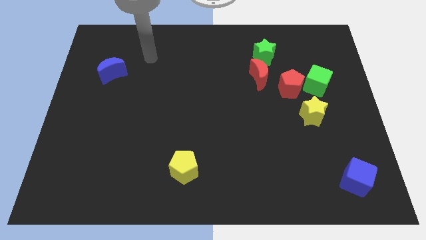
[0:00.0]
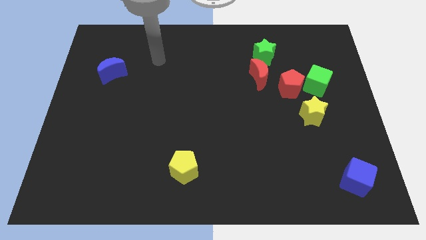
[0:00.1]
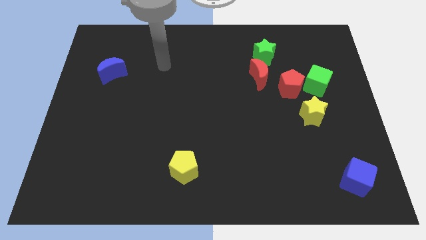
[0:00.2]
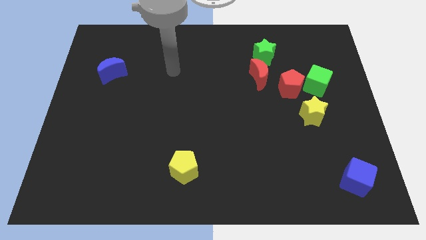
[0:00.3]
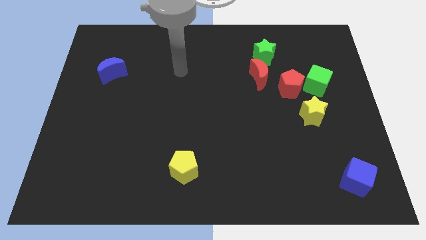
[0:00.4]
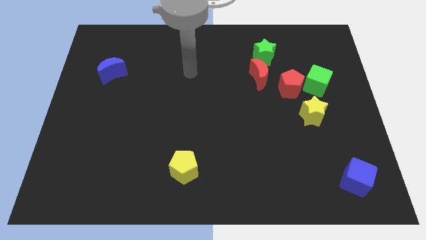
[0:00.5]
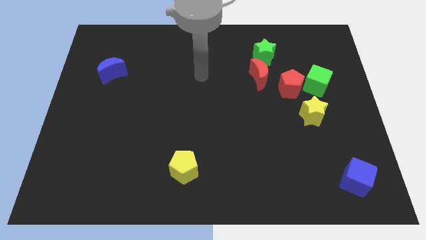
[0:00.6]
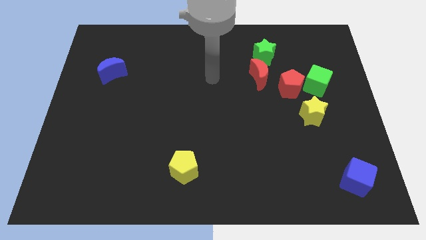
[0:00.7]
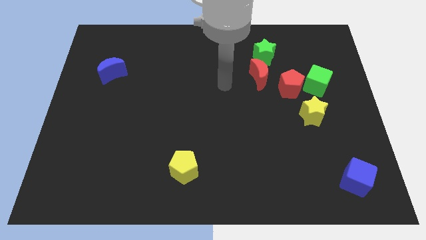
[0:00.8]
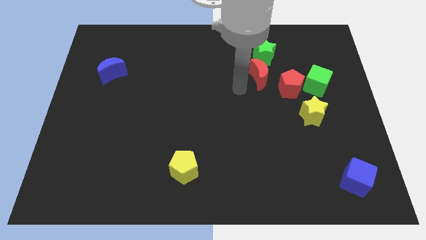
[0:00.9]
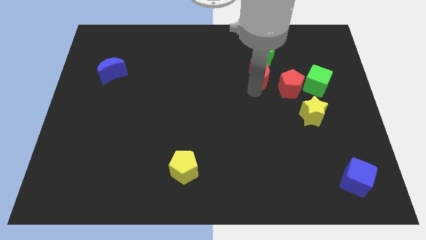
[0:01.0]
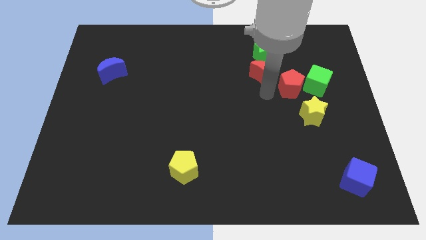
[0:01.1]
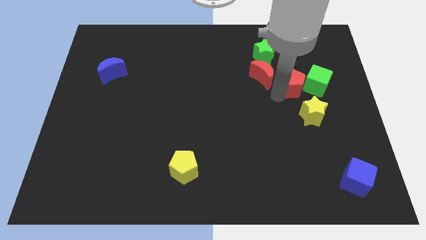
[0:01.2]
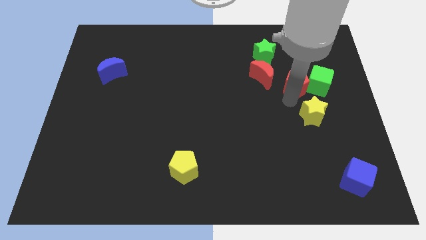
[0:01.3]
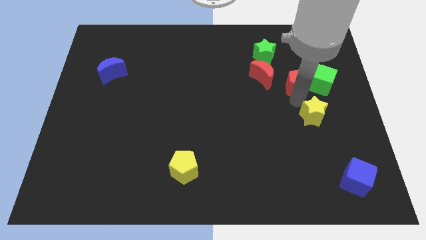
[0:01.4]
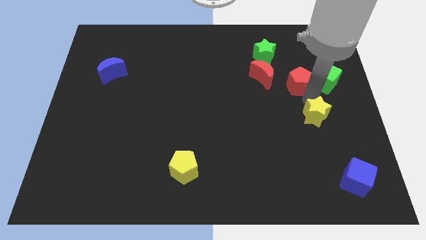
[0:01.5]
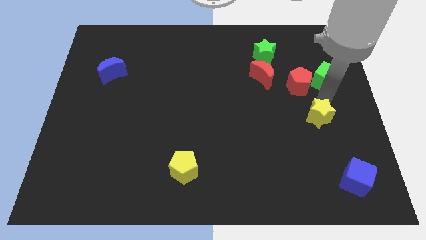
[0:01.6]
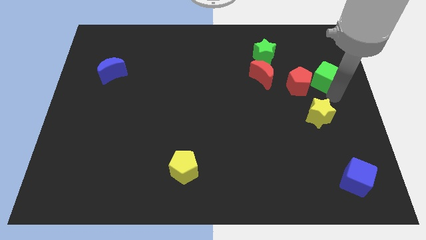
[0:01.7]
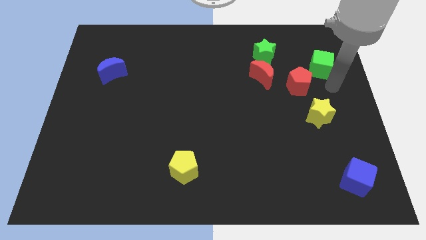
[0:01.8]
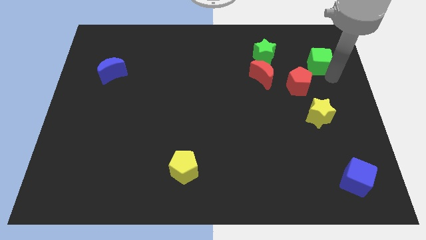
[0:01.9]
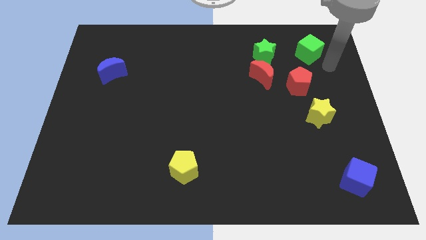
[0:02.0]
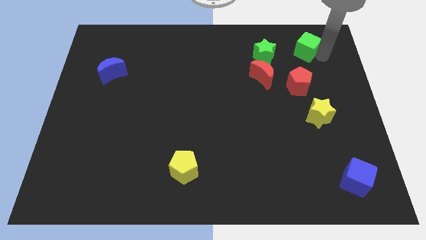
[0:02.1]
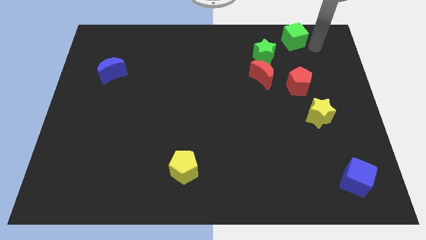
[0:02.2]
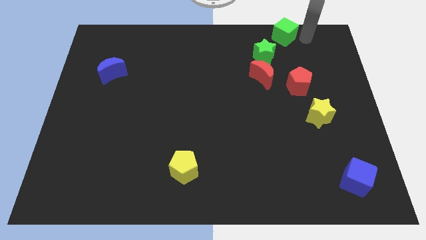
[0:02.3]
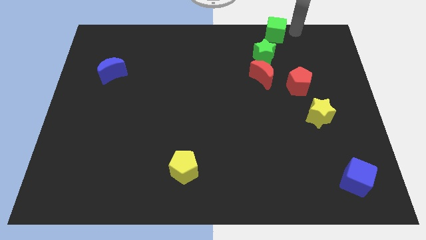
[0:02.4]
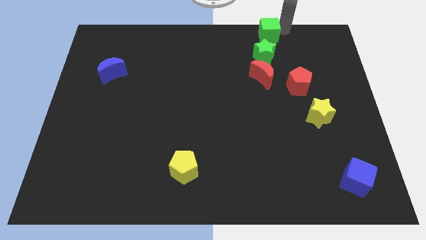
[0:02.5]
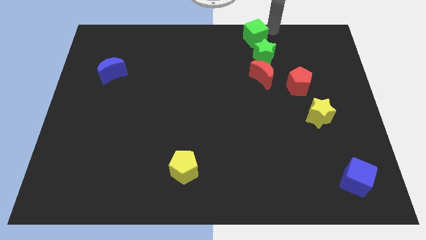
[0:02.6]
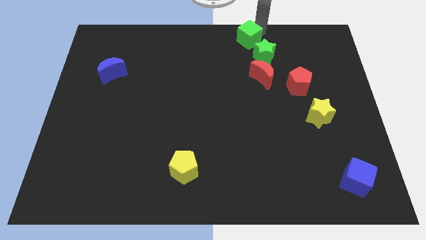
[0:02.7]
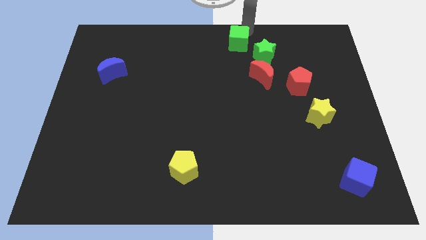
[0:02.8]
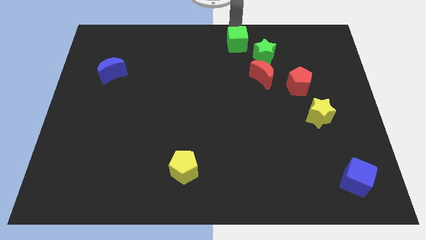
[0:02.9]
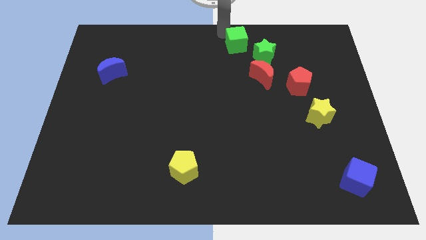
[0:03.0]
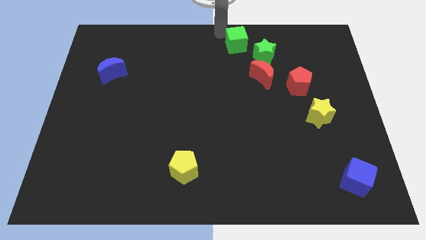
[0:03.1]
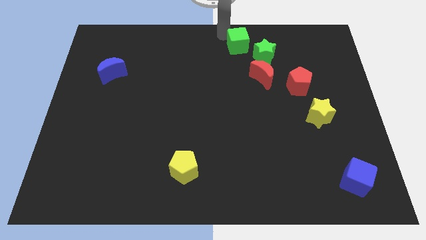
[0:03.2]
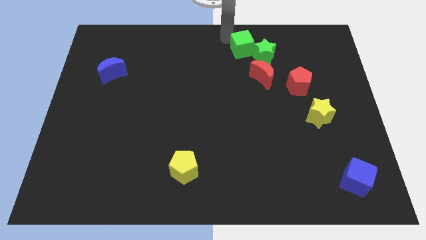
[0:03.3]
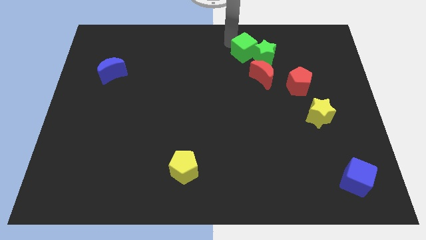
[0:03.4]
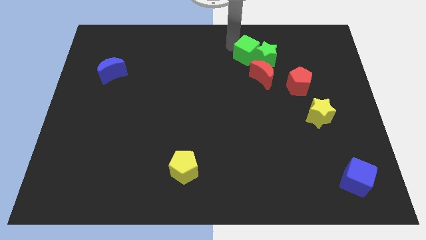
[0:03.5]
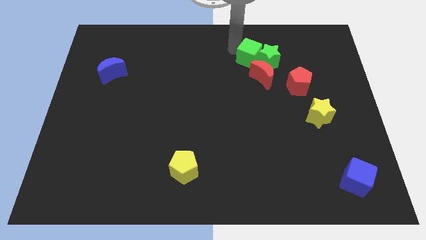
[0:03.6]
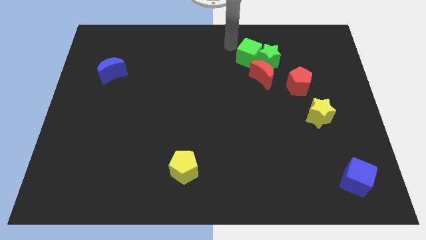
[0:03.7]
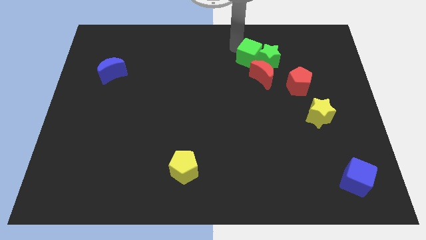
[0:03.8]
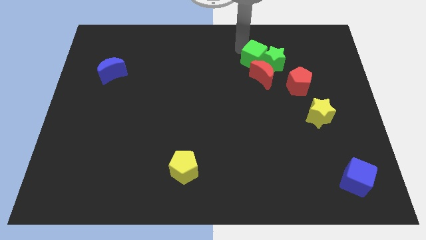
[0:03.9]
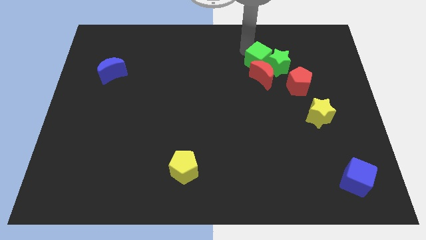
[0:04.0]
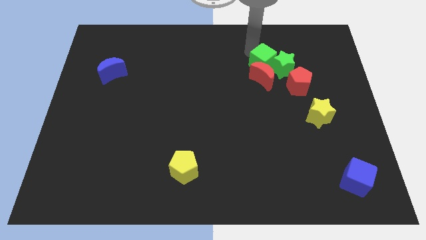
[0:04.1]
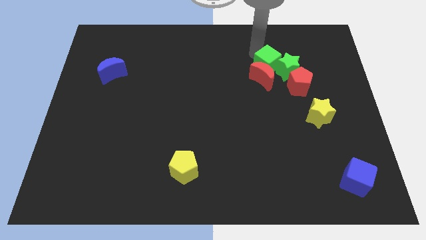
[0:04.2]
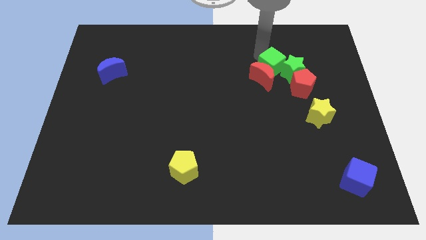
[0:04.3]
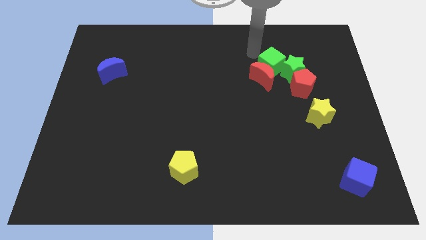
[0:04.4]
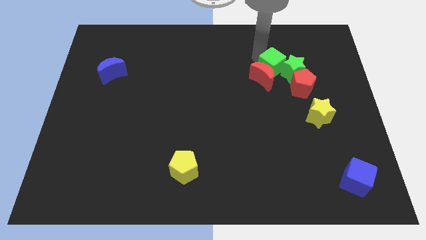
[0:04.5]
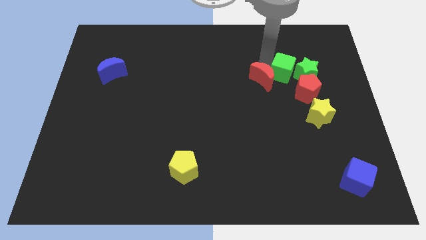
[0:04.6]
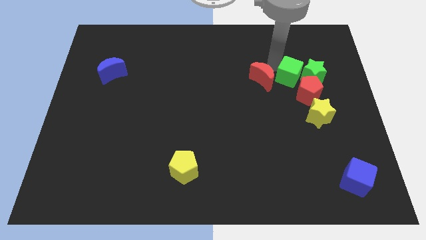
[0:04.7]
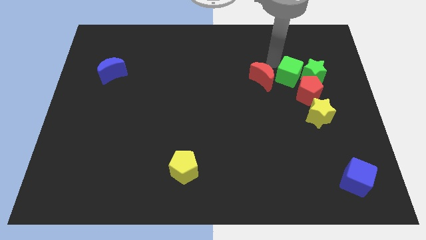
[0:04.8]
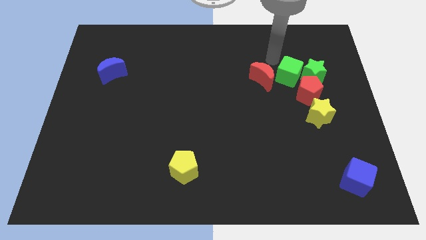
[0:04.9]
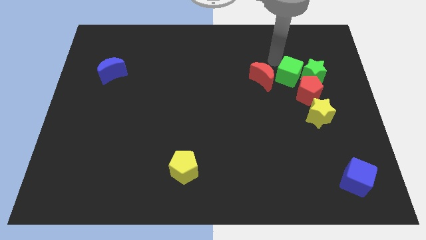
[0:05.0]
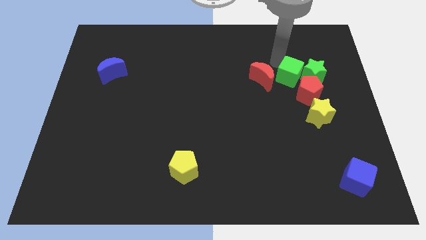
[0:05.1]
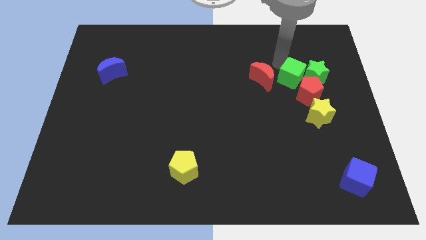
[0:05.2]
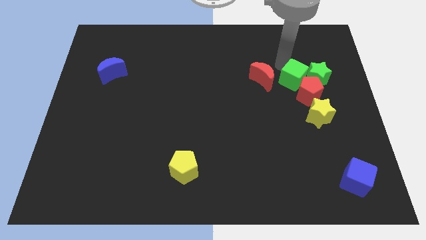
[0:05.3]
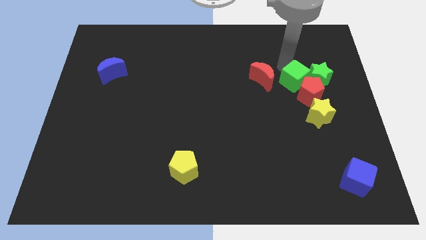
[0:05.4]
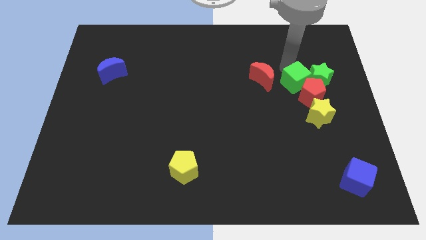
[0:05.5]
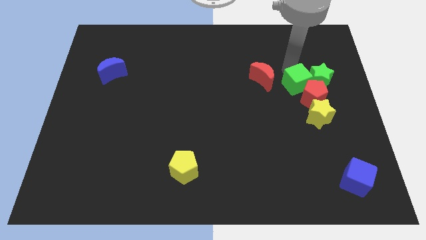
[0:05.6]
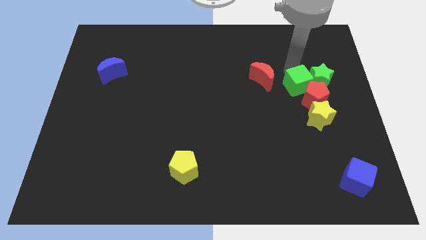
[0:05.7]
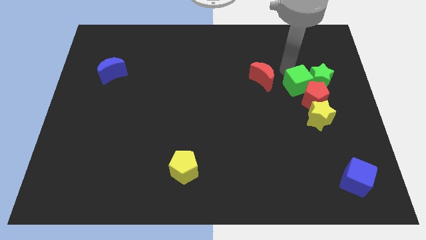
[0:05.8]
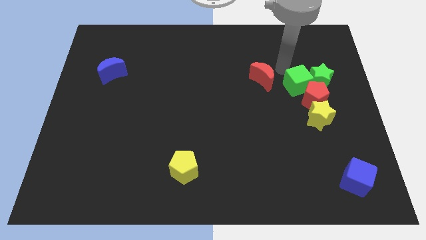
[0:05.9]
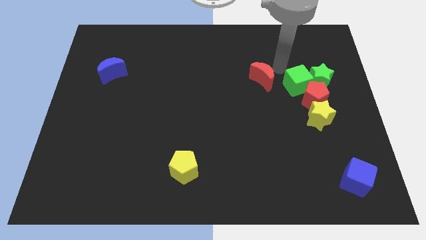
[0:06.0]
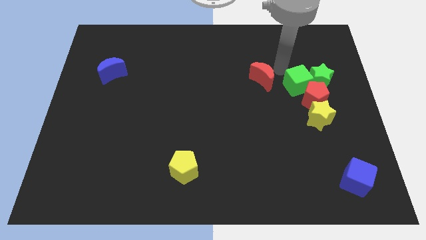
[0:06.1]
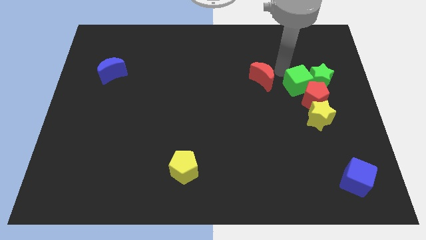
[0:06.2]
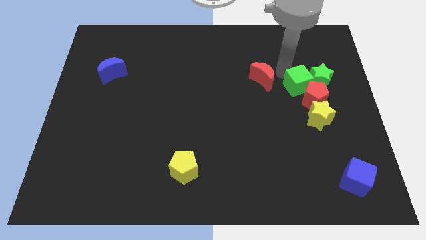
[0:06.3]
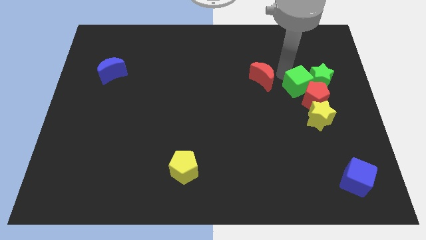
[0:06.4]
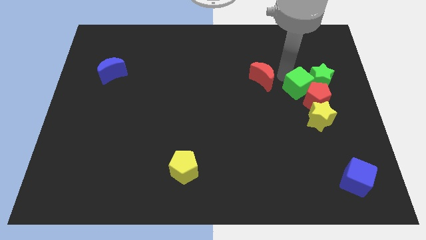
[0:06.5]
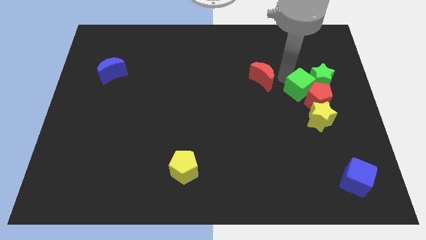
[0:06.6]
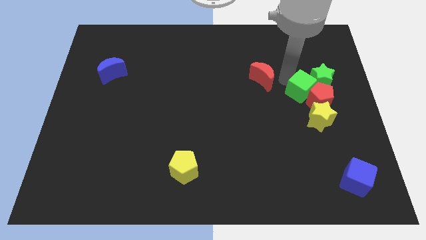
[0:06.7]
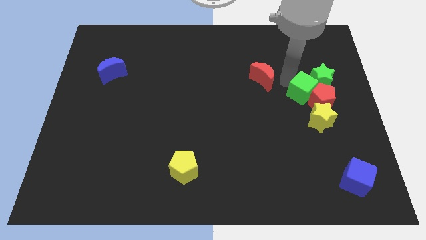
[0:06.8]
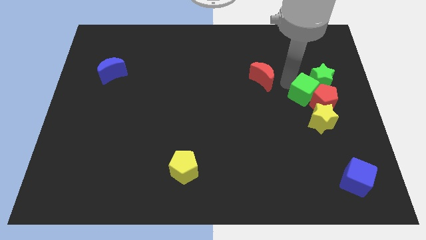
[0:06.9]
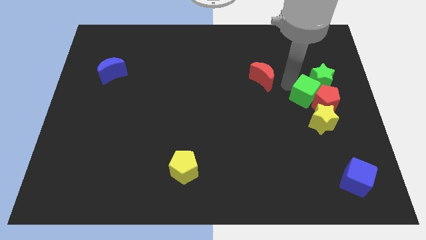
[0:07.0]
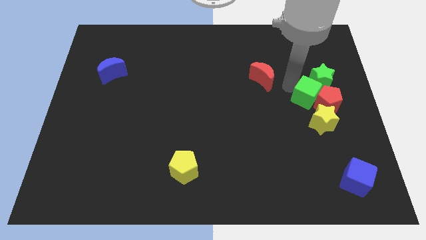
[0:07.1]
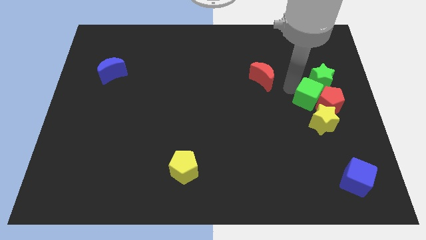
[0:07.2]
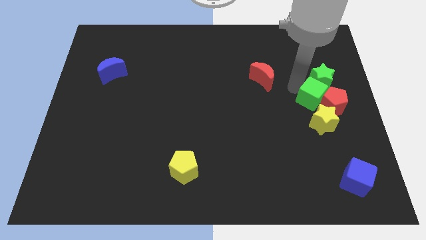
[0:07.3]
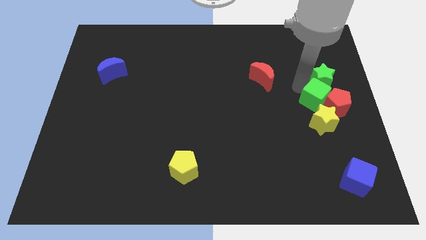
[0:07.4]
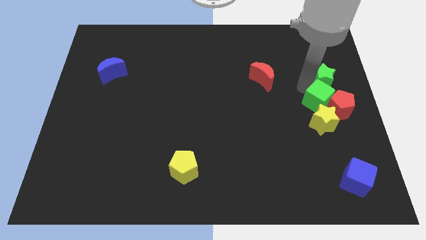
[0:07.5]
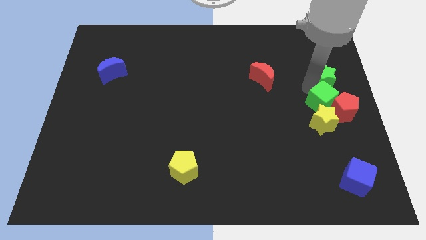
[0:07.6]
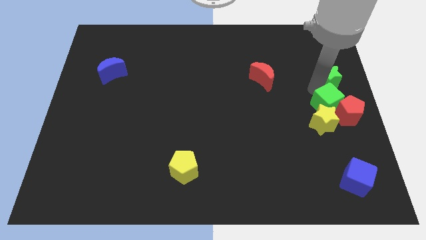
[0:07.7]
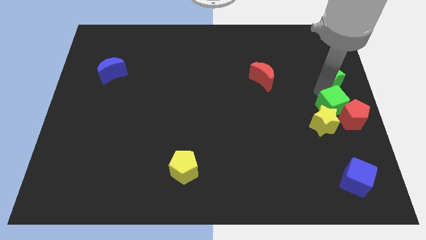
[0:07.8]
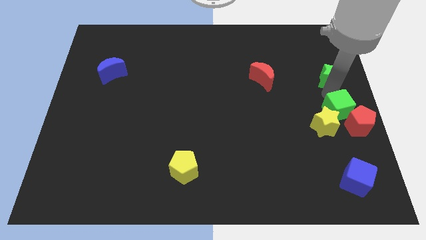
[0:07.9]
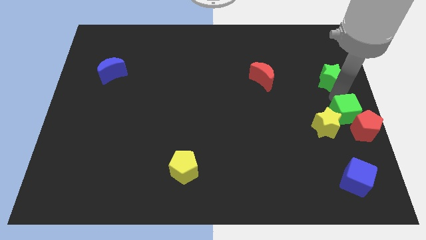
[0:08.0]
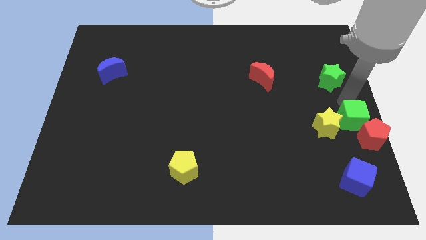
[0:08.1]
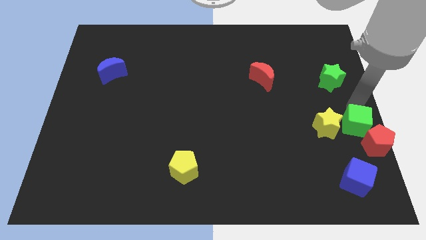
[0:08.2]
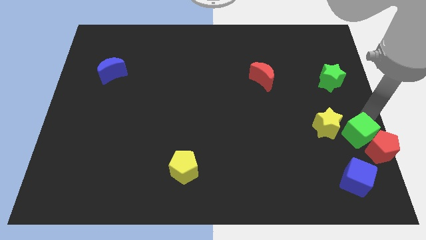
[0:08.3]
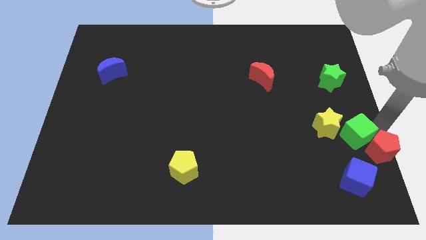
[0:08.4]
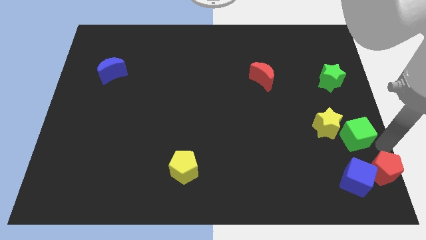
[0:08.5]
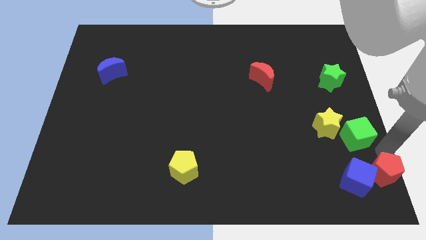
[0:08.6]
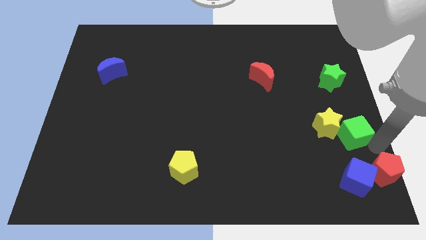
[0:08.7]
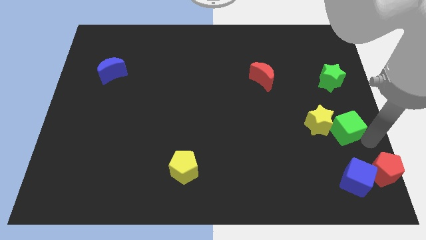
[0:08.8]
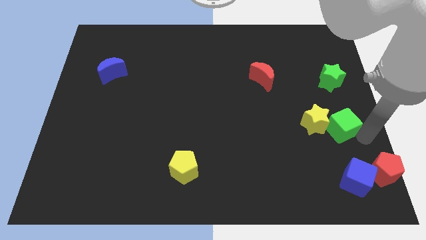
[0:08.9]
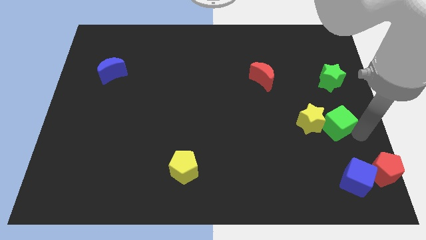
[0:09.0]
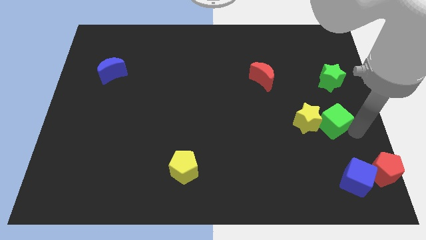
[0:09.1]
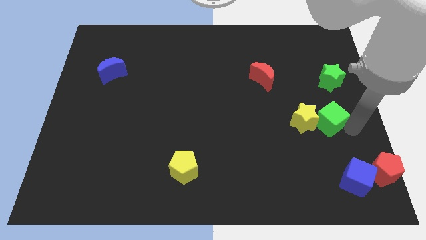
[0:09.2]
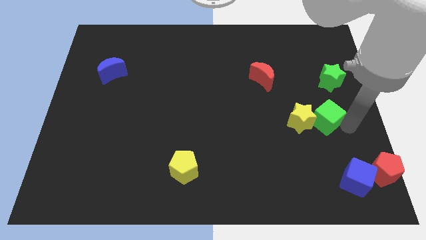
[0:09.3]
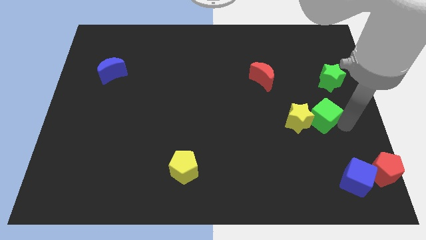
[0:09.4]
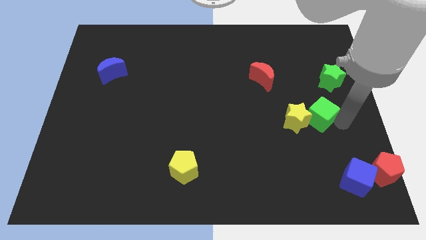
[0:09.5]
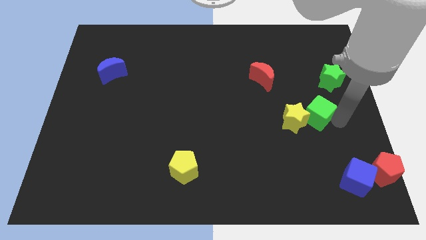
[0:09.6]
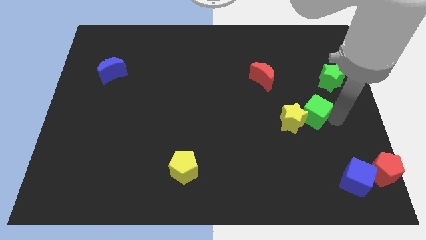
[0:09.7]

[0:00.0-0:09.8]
slightly move the green cube downwards and to the left diagonally
